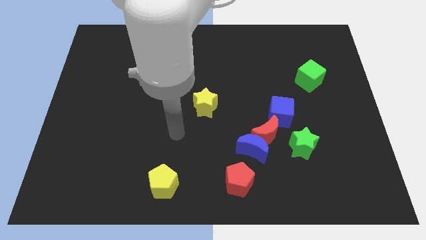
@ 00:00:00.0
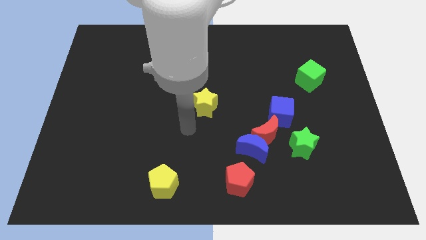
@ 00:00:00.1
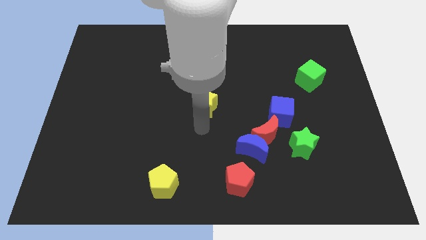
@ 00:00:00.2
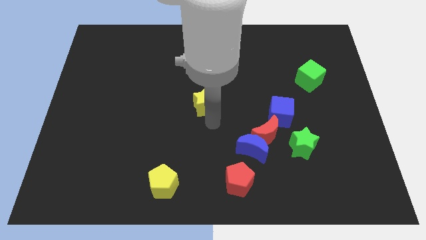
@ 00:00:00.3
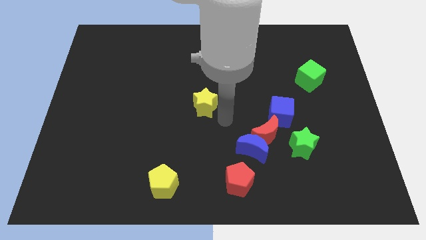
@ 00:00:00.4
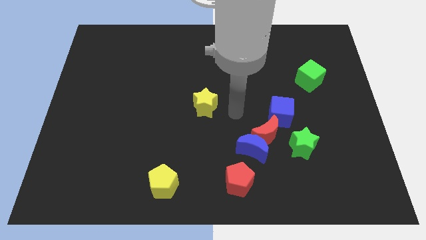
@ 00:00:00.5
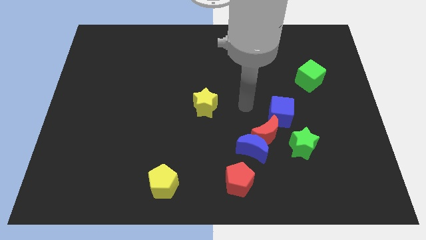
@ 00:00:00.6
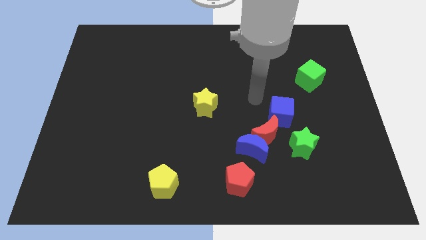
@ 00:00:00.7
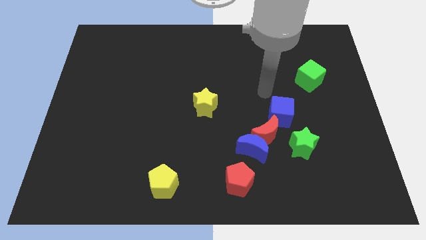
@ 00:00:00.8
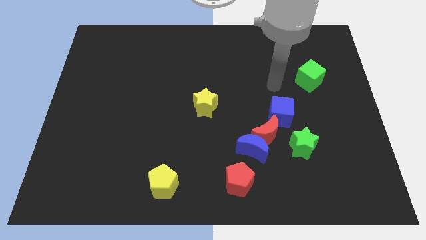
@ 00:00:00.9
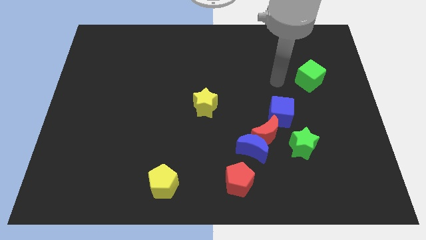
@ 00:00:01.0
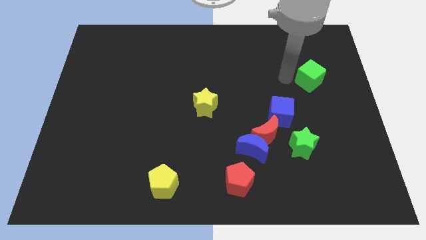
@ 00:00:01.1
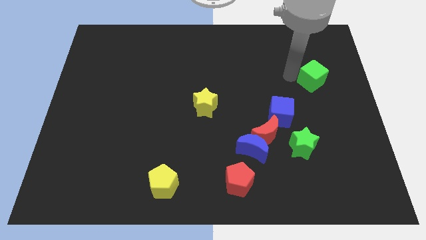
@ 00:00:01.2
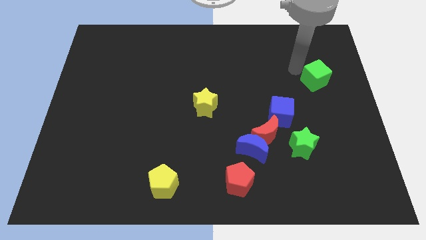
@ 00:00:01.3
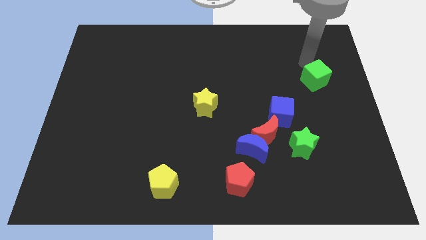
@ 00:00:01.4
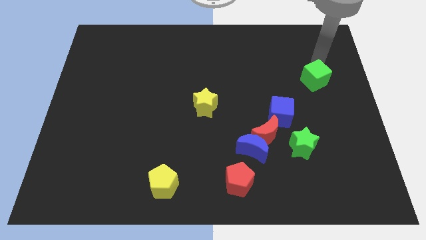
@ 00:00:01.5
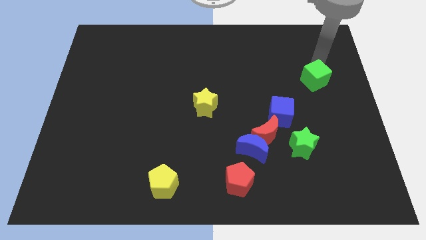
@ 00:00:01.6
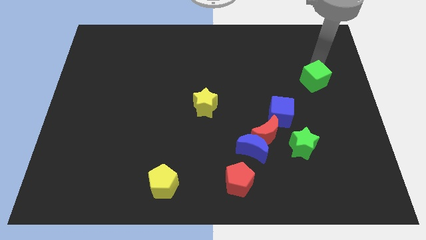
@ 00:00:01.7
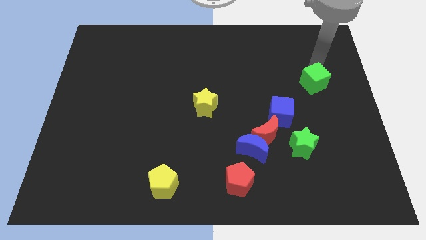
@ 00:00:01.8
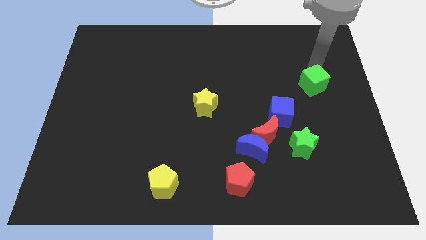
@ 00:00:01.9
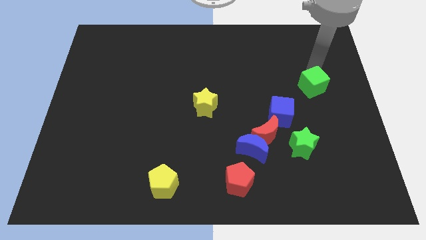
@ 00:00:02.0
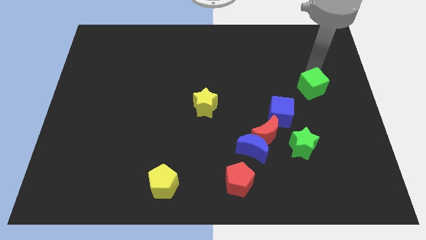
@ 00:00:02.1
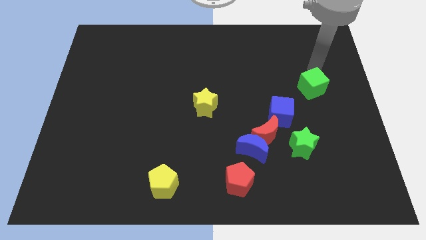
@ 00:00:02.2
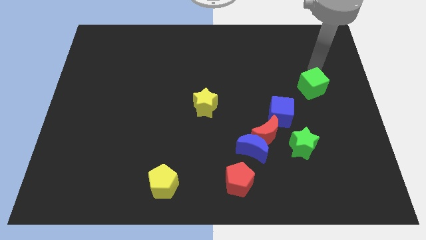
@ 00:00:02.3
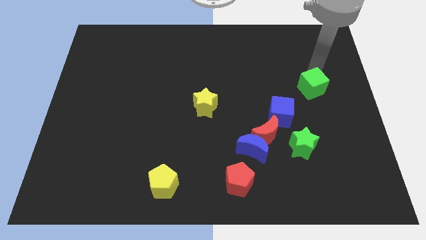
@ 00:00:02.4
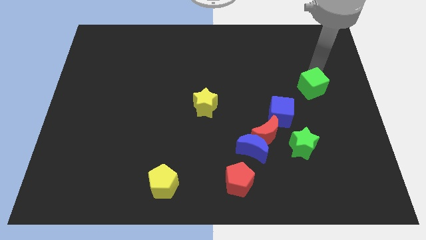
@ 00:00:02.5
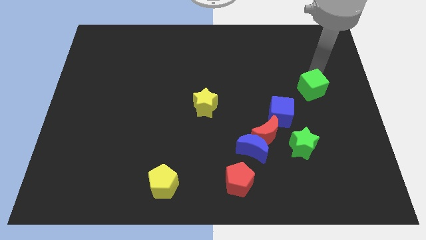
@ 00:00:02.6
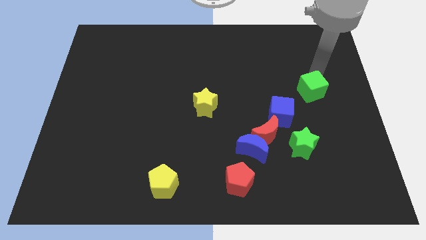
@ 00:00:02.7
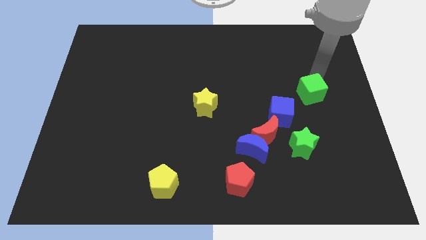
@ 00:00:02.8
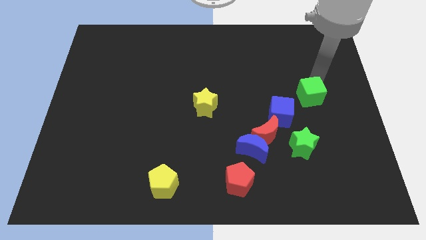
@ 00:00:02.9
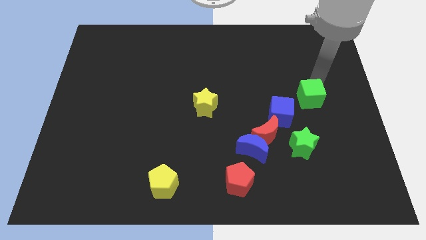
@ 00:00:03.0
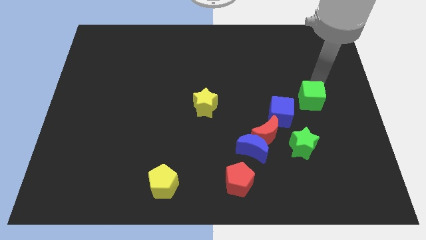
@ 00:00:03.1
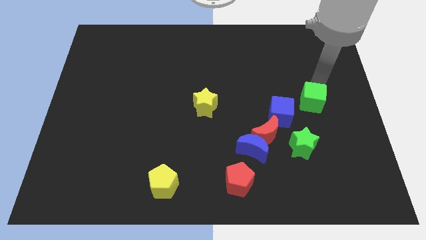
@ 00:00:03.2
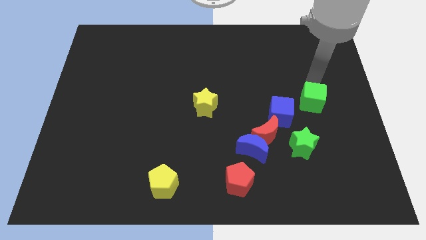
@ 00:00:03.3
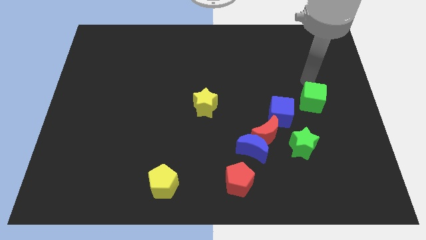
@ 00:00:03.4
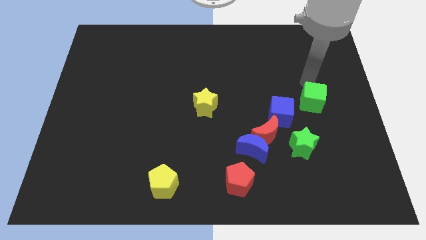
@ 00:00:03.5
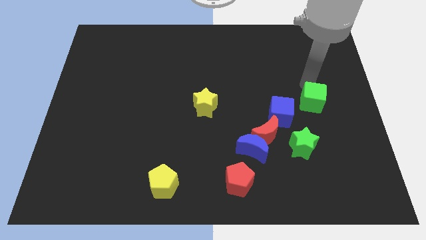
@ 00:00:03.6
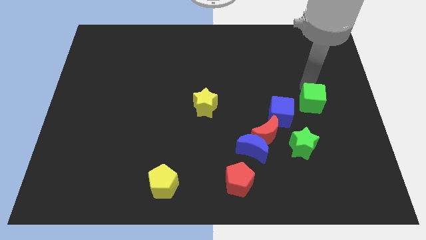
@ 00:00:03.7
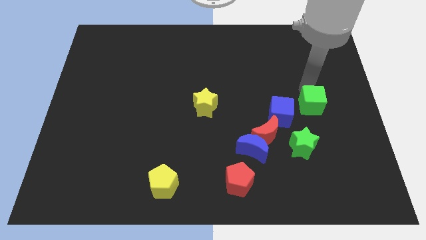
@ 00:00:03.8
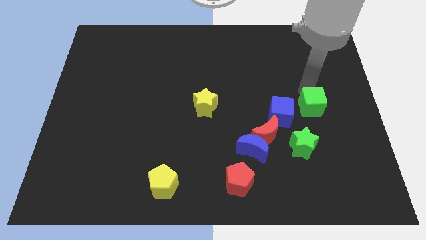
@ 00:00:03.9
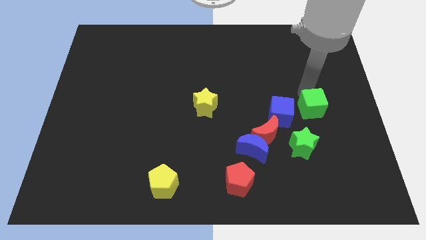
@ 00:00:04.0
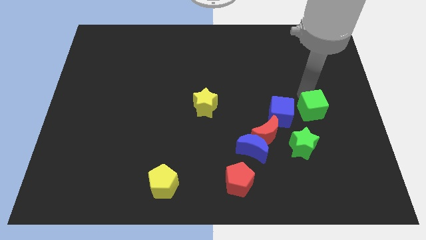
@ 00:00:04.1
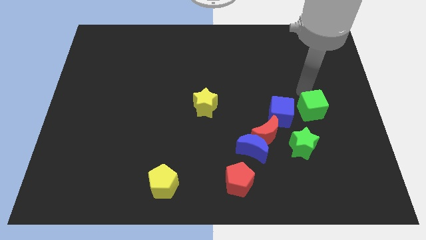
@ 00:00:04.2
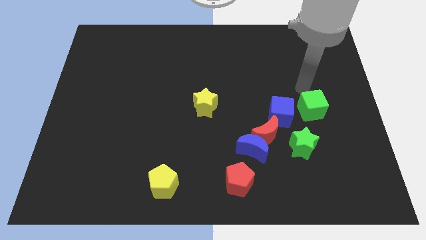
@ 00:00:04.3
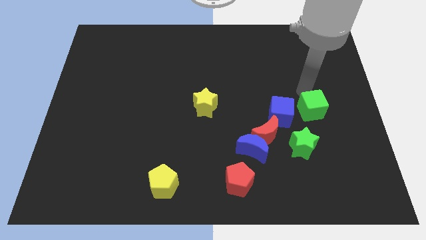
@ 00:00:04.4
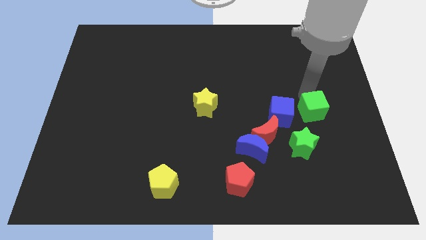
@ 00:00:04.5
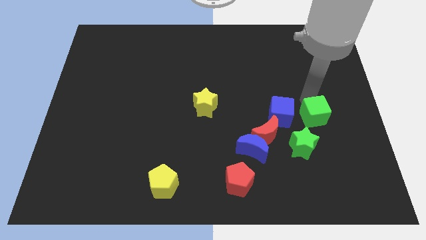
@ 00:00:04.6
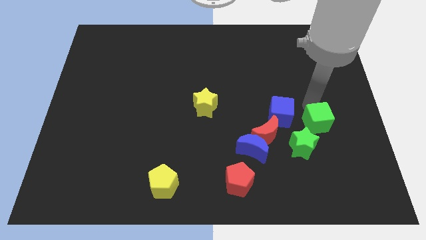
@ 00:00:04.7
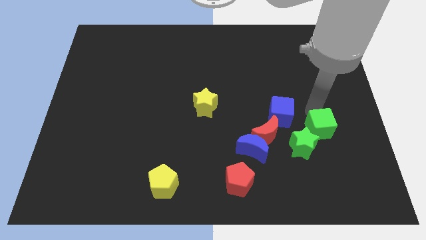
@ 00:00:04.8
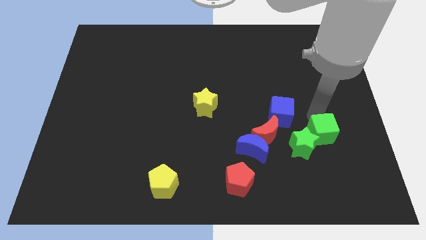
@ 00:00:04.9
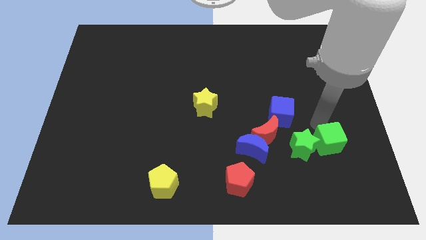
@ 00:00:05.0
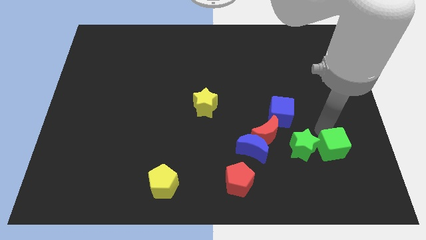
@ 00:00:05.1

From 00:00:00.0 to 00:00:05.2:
put the green cube to the bottom right of the green star

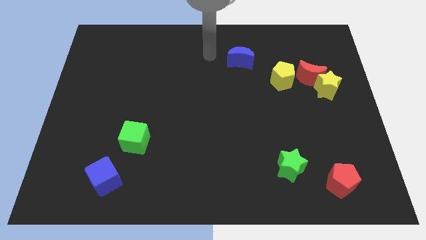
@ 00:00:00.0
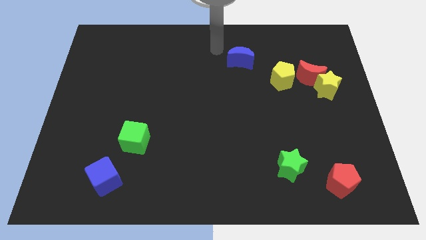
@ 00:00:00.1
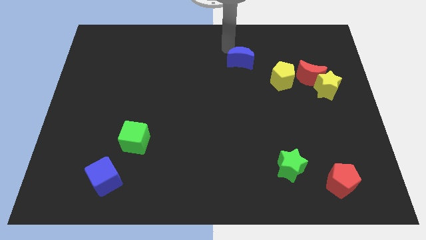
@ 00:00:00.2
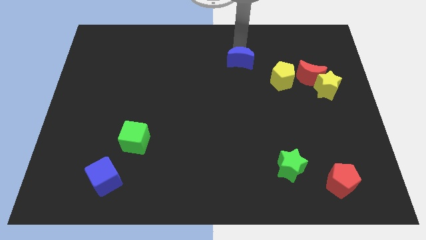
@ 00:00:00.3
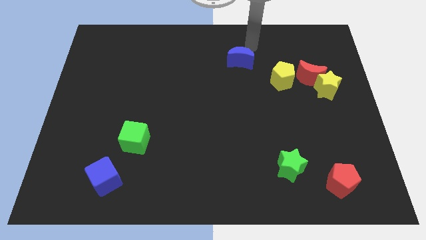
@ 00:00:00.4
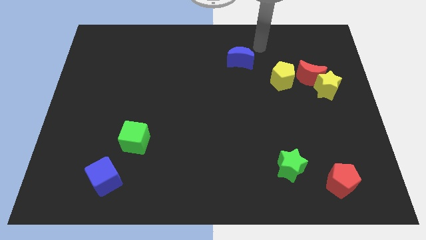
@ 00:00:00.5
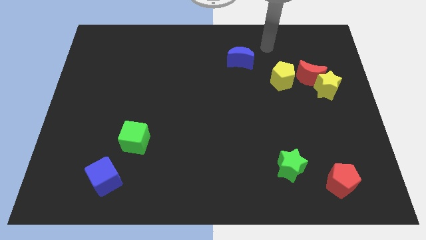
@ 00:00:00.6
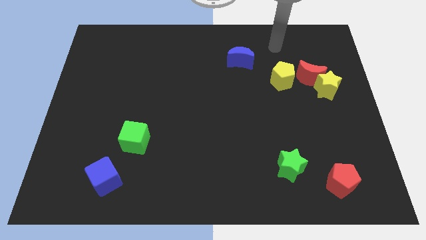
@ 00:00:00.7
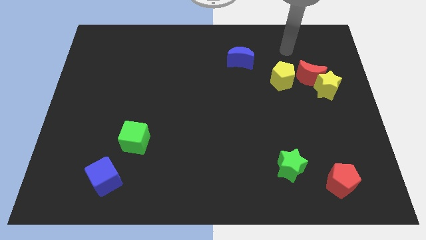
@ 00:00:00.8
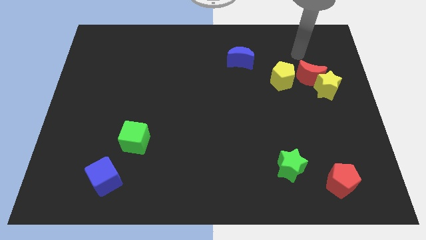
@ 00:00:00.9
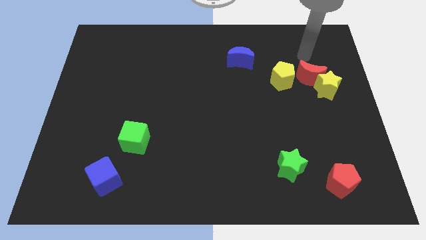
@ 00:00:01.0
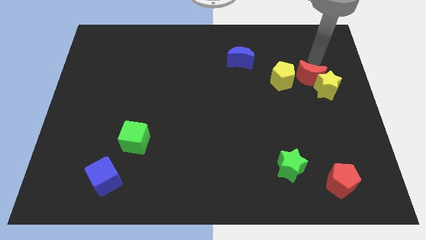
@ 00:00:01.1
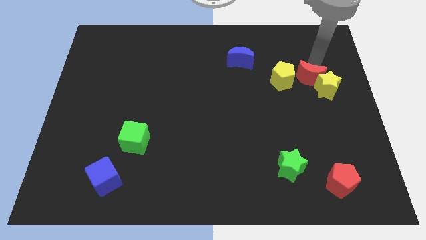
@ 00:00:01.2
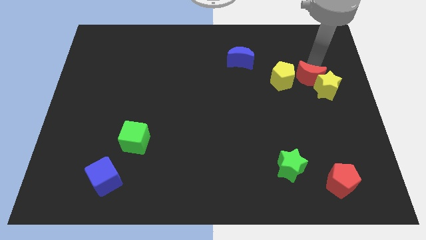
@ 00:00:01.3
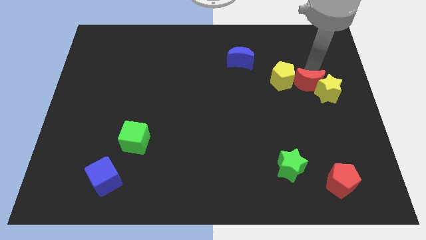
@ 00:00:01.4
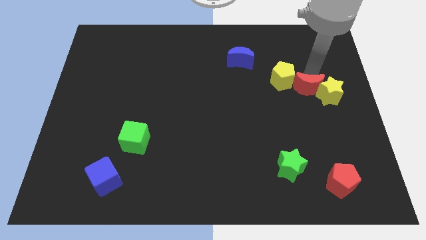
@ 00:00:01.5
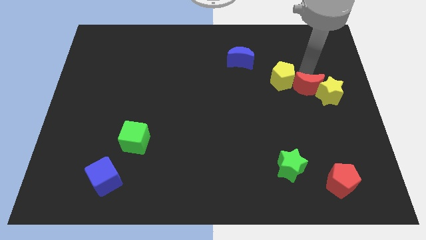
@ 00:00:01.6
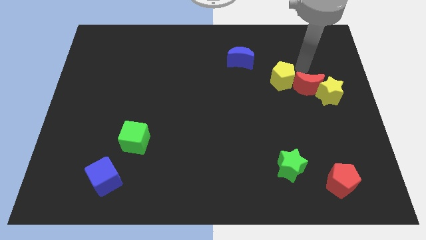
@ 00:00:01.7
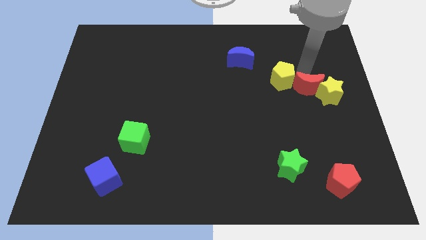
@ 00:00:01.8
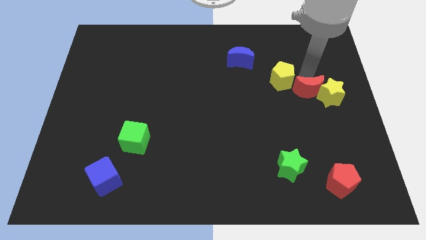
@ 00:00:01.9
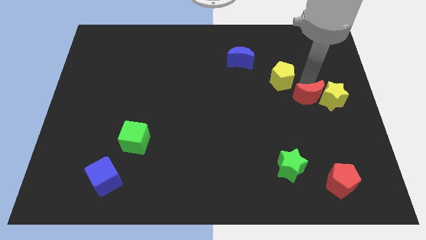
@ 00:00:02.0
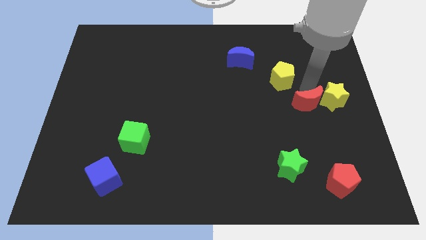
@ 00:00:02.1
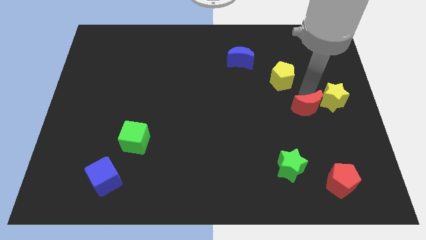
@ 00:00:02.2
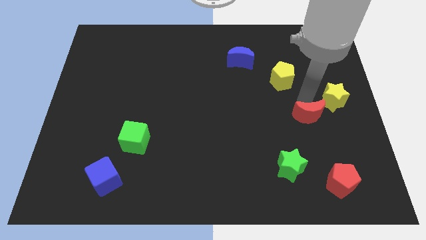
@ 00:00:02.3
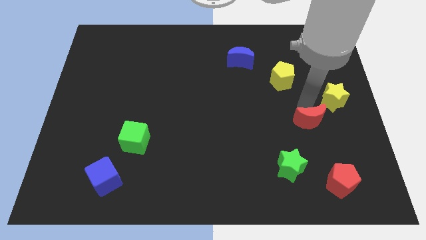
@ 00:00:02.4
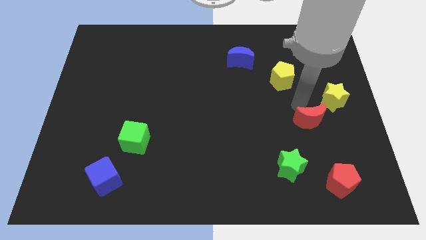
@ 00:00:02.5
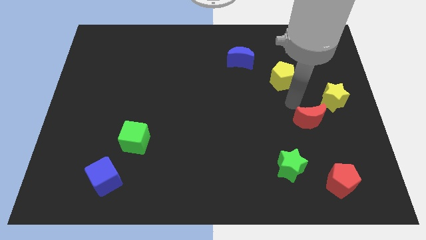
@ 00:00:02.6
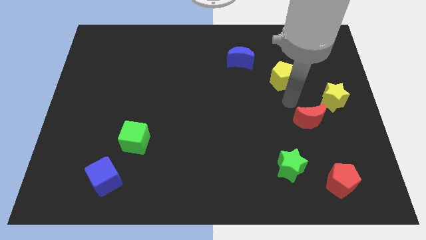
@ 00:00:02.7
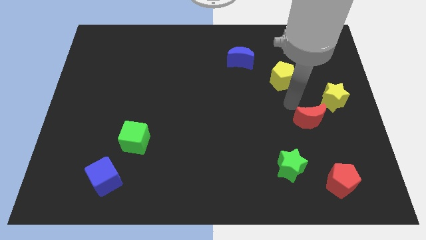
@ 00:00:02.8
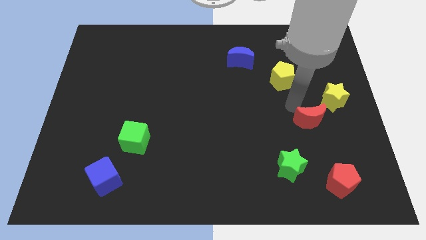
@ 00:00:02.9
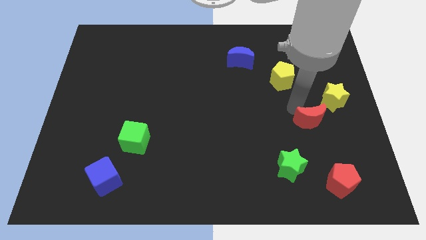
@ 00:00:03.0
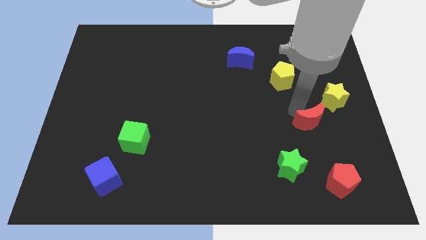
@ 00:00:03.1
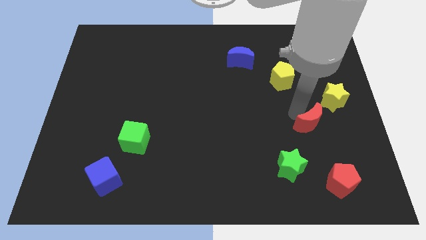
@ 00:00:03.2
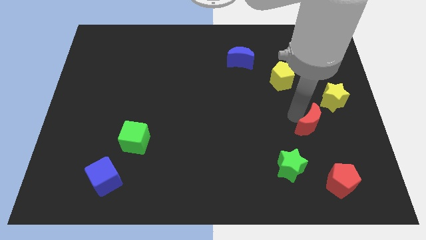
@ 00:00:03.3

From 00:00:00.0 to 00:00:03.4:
put the red moon to the top side of the red pentagon
